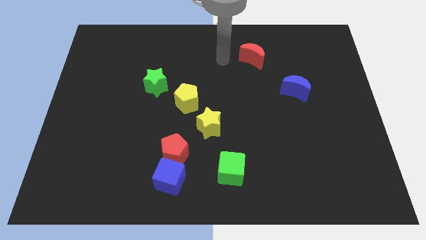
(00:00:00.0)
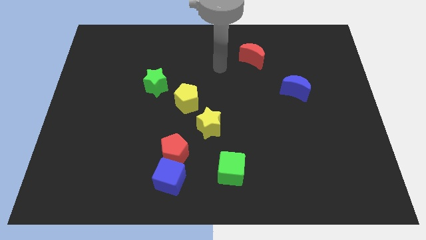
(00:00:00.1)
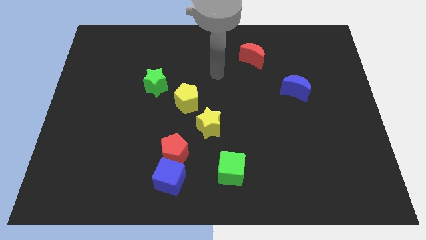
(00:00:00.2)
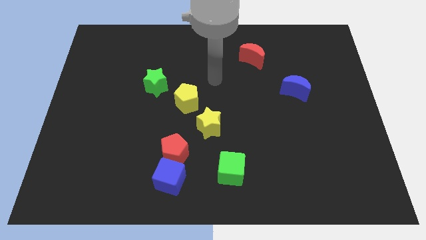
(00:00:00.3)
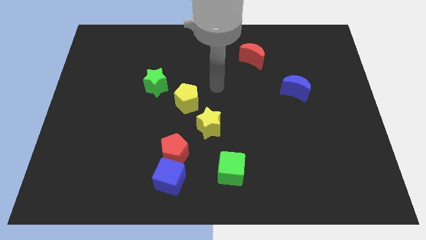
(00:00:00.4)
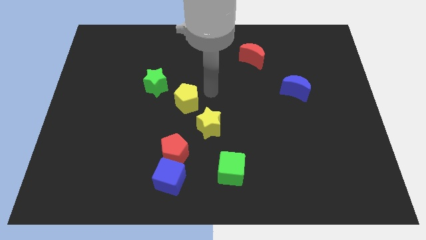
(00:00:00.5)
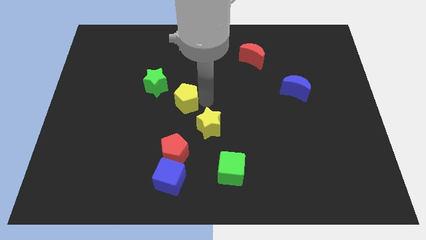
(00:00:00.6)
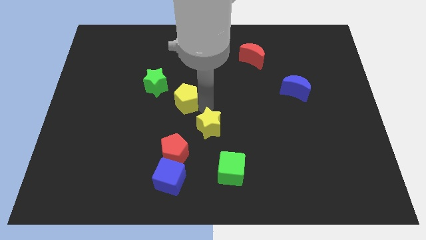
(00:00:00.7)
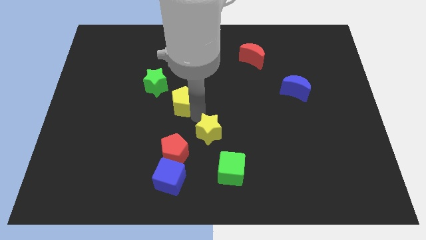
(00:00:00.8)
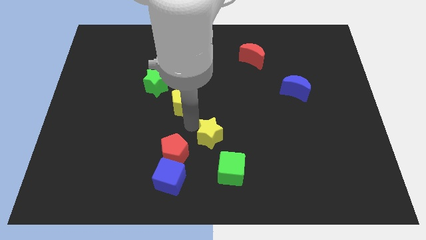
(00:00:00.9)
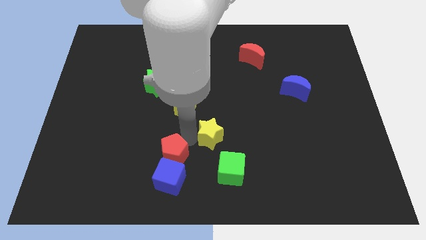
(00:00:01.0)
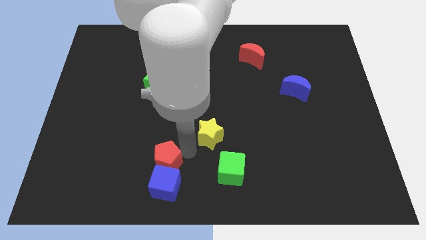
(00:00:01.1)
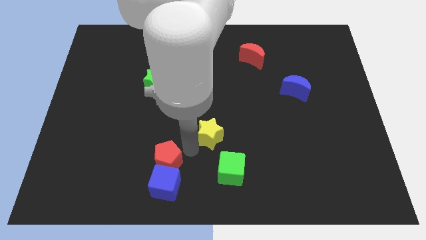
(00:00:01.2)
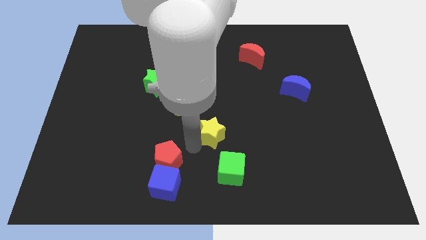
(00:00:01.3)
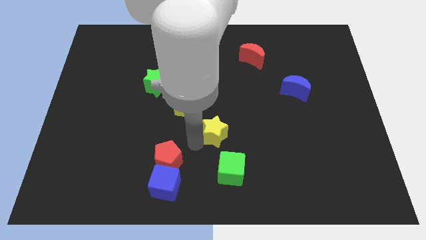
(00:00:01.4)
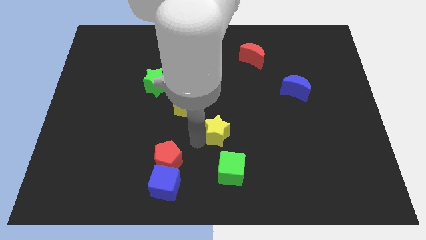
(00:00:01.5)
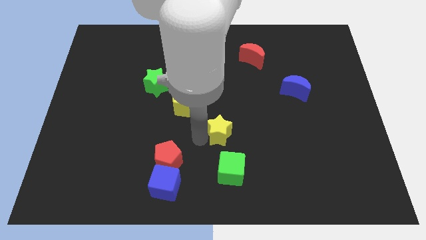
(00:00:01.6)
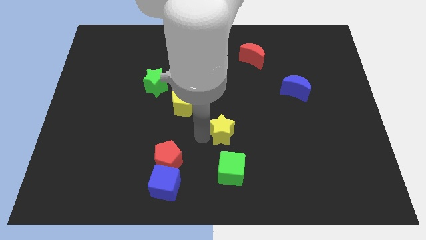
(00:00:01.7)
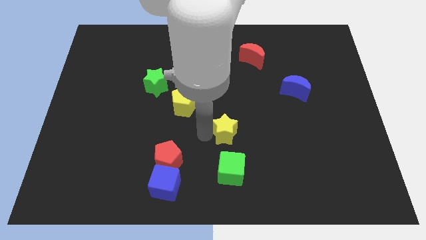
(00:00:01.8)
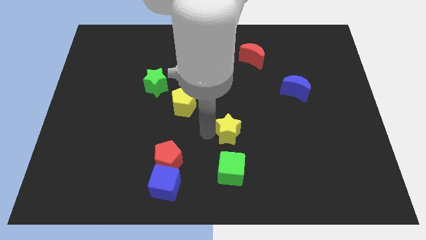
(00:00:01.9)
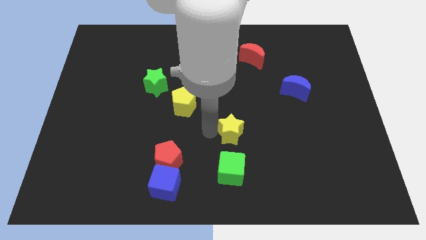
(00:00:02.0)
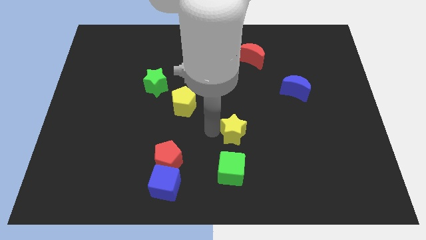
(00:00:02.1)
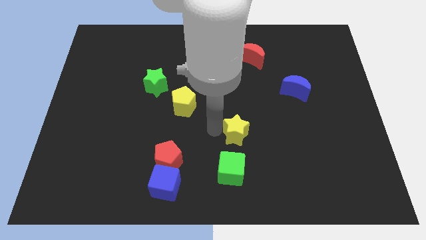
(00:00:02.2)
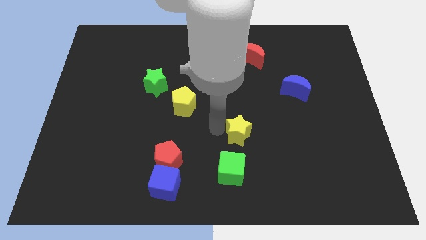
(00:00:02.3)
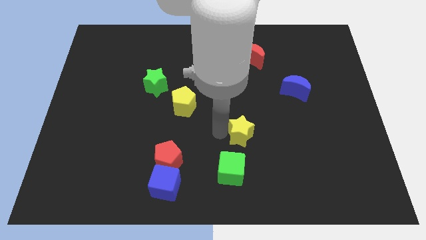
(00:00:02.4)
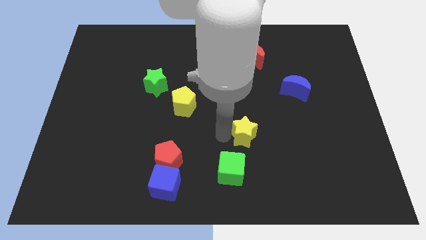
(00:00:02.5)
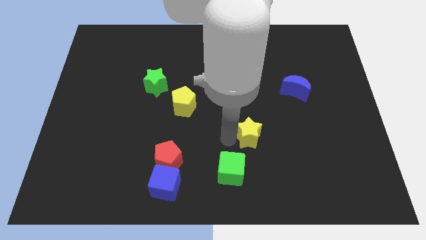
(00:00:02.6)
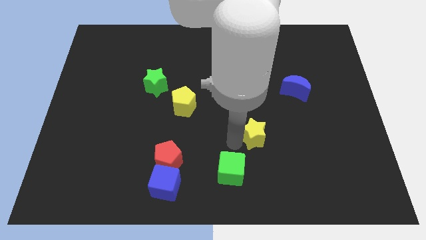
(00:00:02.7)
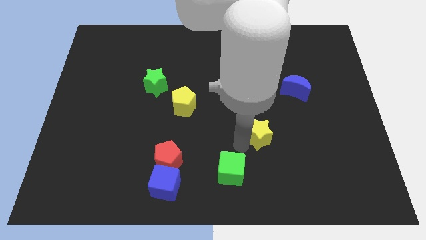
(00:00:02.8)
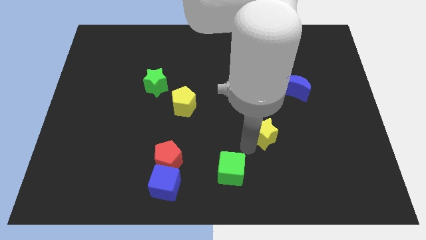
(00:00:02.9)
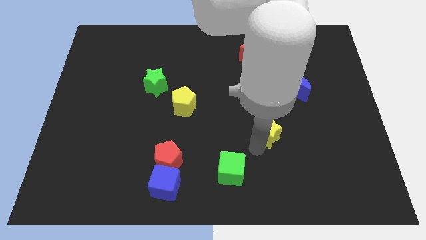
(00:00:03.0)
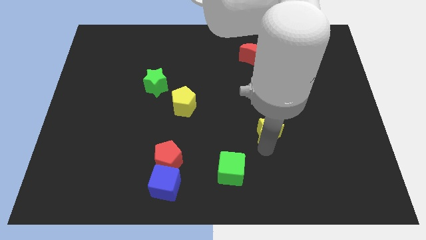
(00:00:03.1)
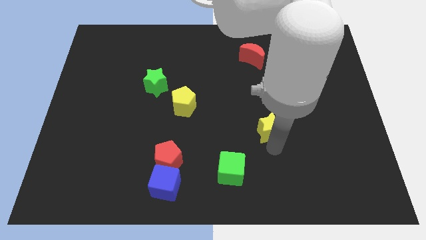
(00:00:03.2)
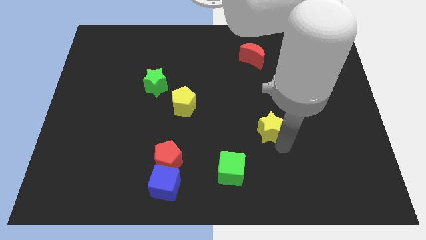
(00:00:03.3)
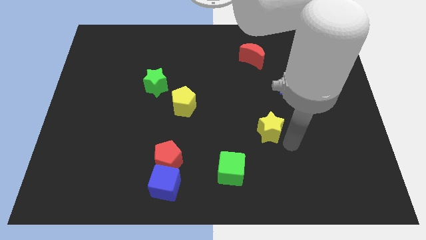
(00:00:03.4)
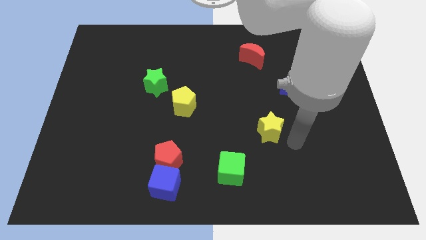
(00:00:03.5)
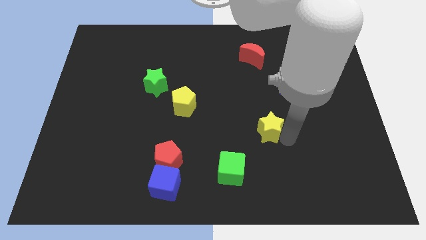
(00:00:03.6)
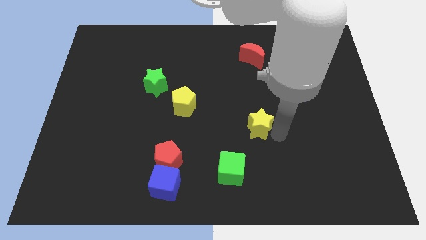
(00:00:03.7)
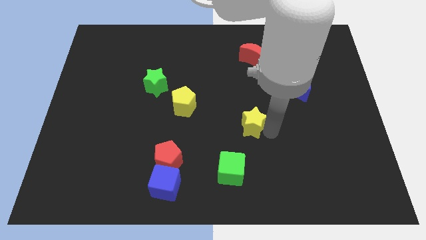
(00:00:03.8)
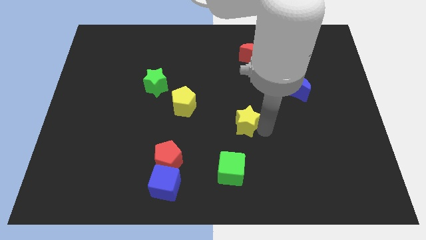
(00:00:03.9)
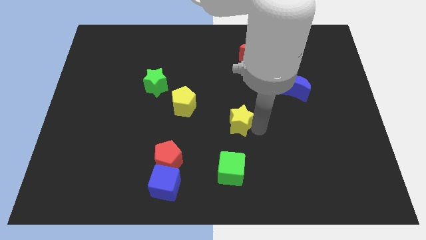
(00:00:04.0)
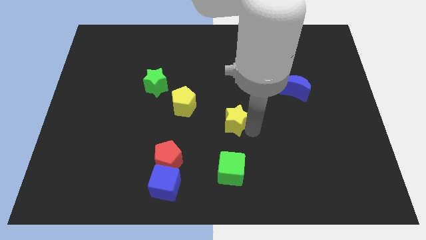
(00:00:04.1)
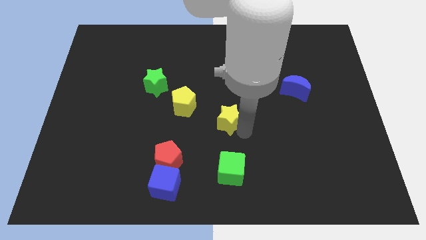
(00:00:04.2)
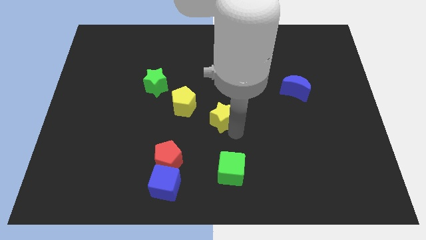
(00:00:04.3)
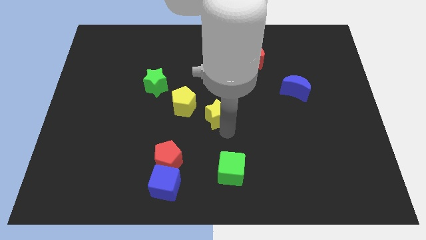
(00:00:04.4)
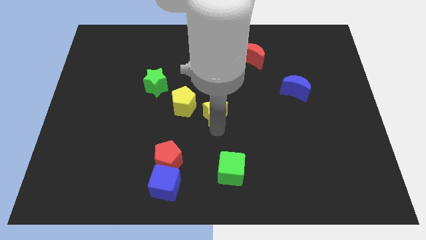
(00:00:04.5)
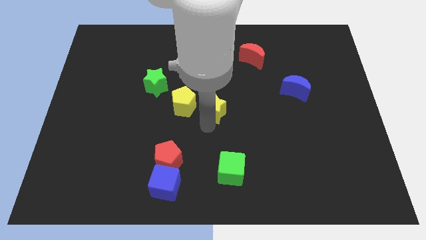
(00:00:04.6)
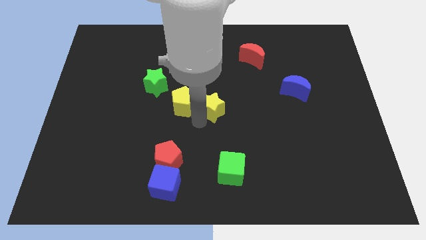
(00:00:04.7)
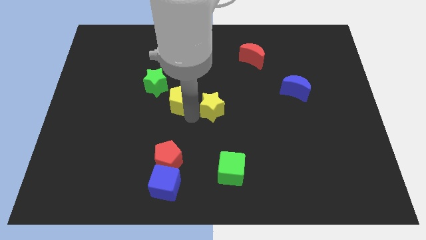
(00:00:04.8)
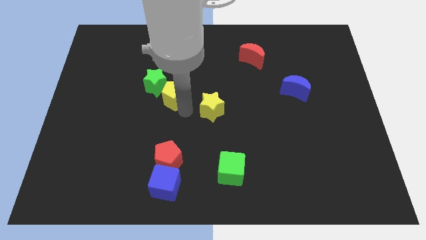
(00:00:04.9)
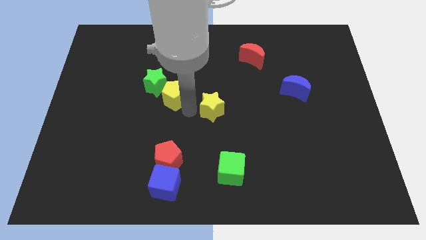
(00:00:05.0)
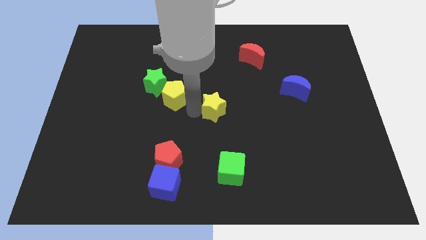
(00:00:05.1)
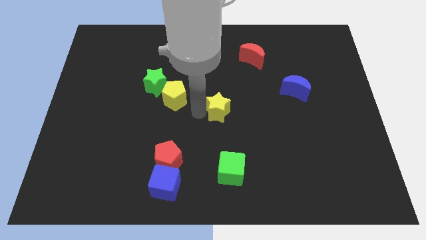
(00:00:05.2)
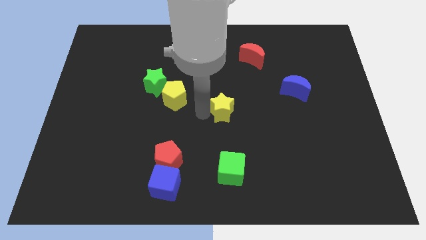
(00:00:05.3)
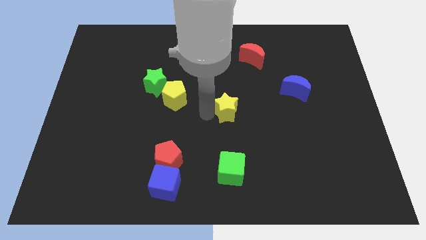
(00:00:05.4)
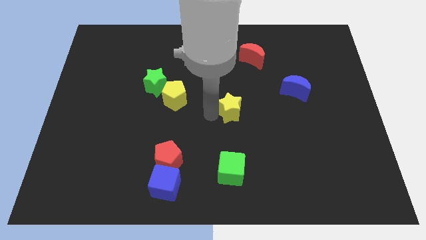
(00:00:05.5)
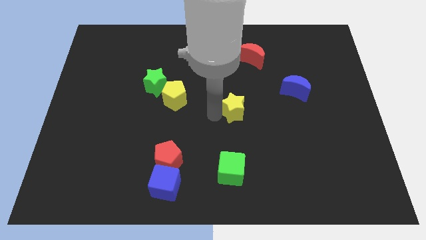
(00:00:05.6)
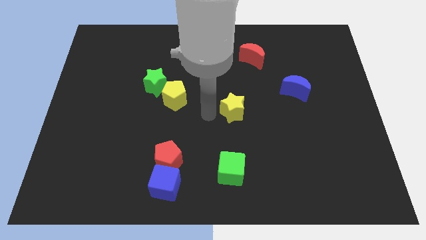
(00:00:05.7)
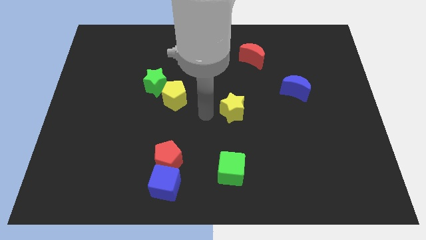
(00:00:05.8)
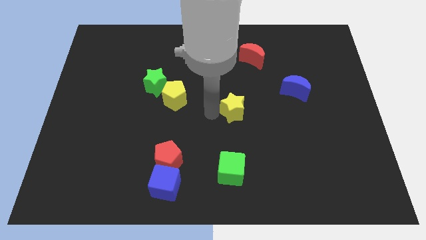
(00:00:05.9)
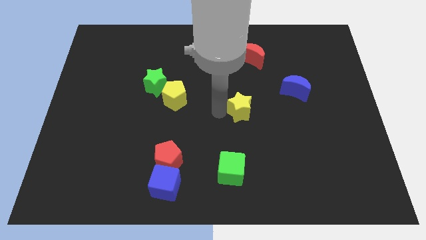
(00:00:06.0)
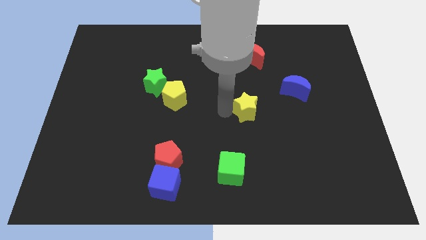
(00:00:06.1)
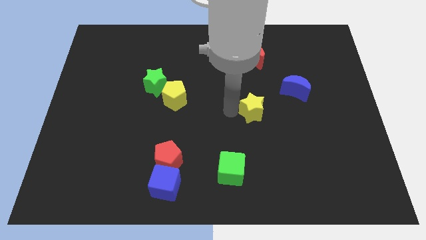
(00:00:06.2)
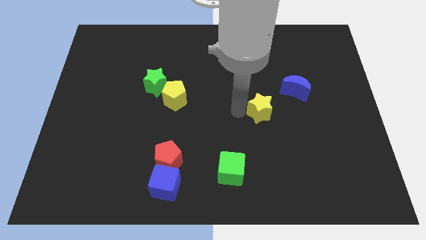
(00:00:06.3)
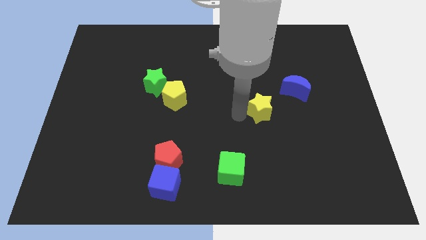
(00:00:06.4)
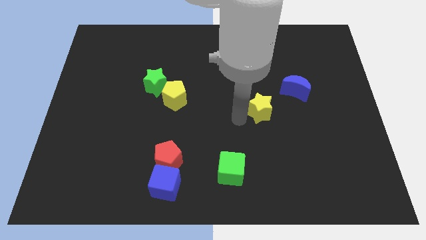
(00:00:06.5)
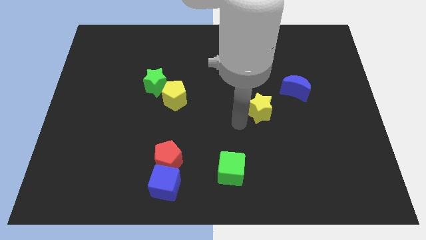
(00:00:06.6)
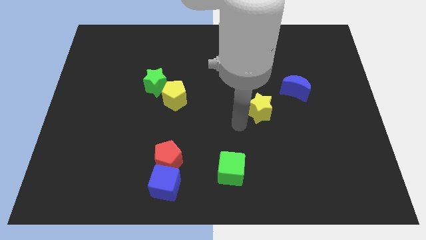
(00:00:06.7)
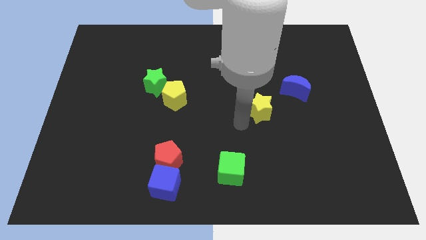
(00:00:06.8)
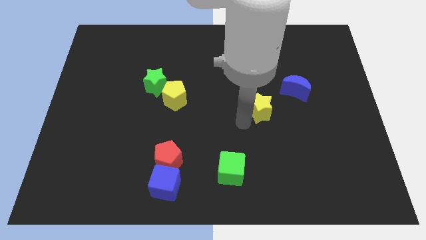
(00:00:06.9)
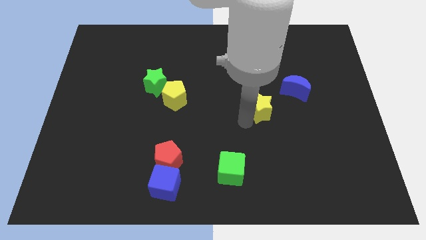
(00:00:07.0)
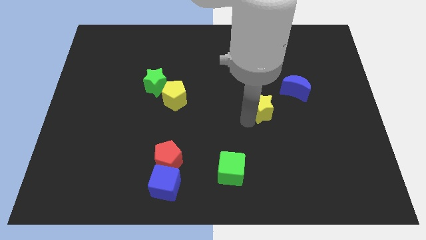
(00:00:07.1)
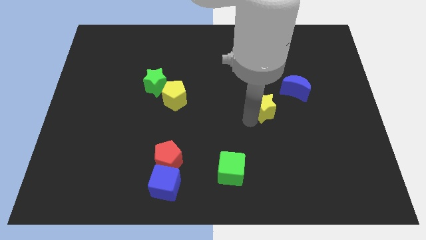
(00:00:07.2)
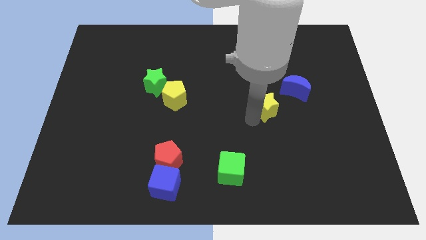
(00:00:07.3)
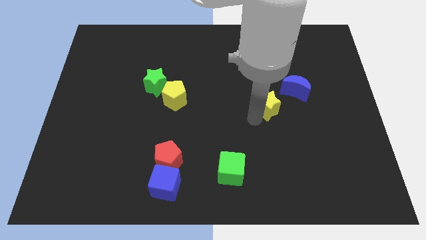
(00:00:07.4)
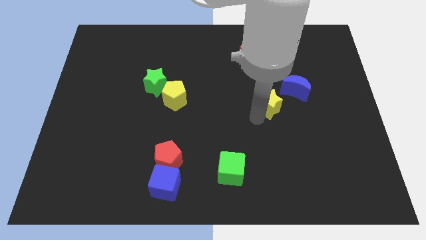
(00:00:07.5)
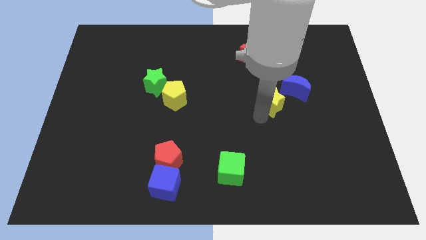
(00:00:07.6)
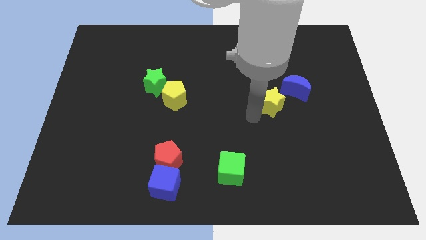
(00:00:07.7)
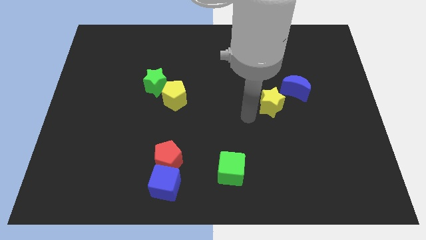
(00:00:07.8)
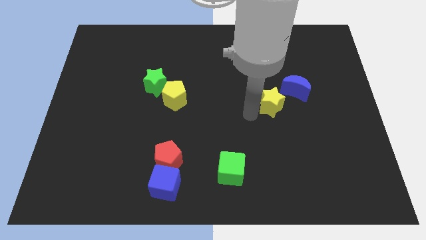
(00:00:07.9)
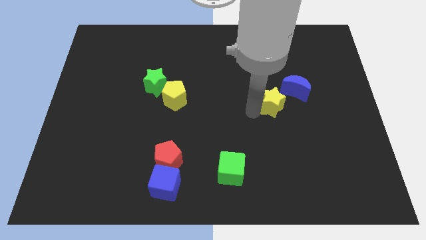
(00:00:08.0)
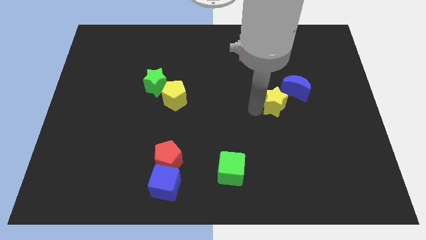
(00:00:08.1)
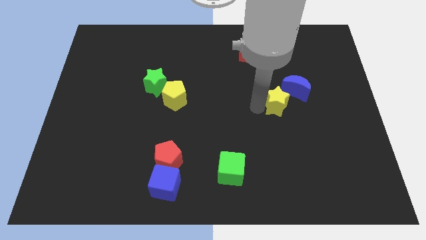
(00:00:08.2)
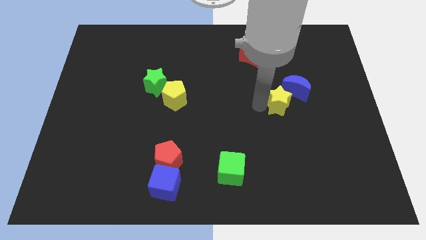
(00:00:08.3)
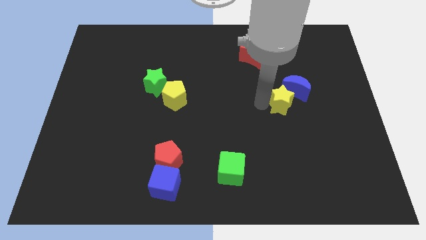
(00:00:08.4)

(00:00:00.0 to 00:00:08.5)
push the yellow star next to the blue moon
